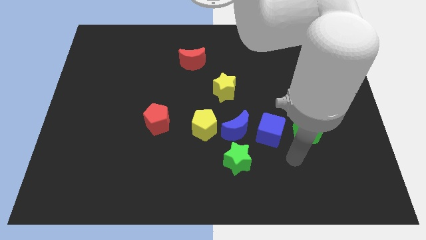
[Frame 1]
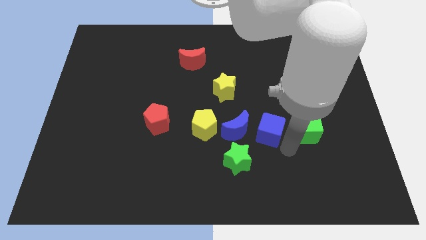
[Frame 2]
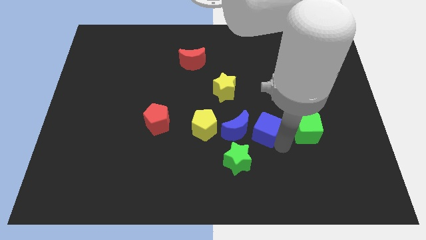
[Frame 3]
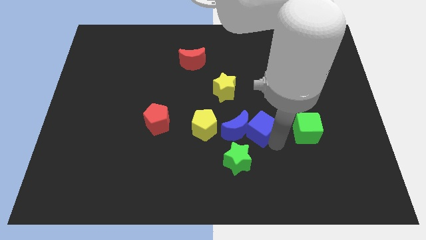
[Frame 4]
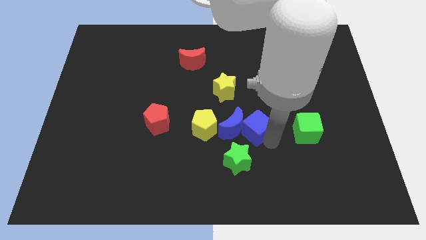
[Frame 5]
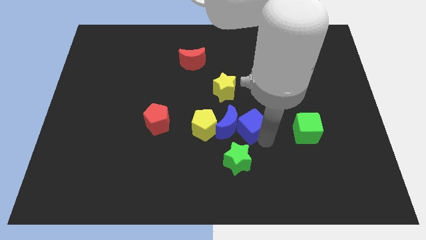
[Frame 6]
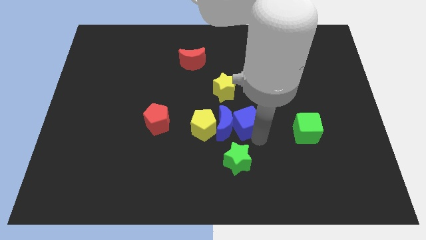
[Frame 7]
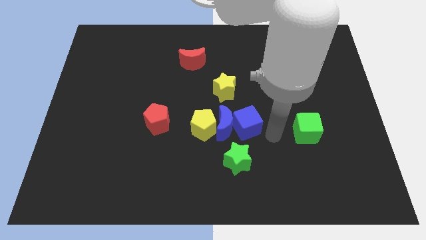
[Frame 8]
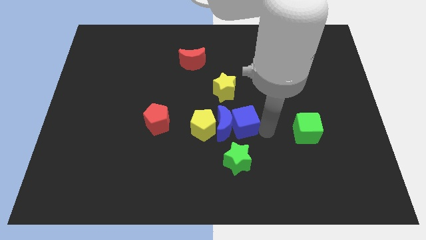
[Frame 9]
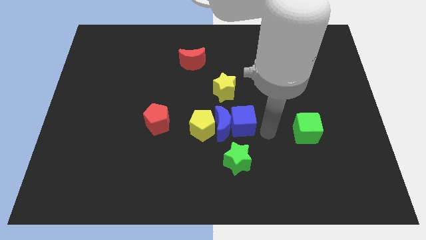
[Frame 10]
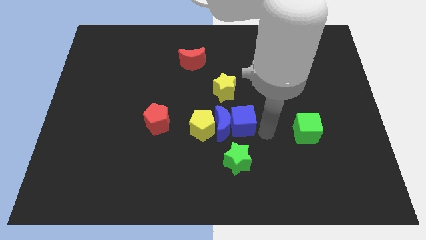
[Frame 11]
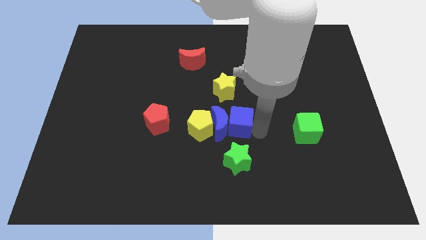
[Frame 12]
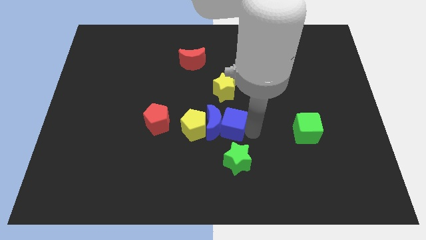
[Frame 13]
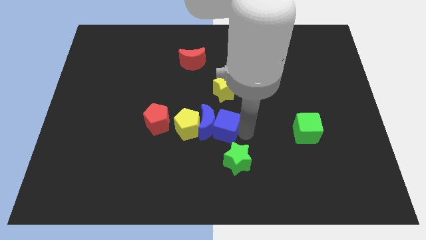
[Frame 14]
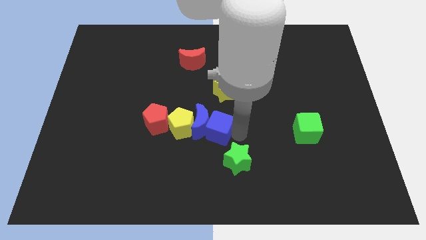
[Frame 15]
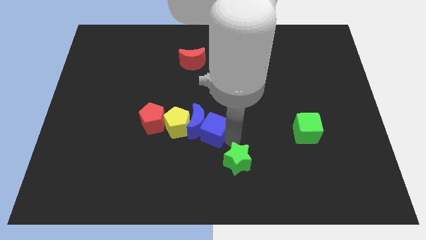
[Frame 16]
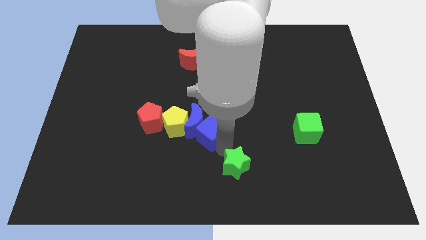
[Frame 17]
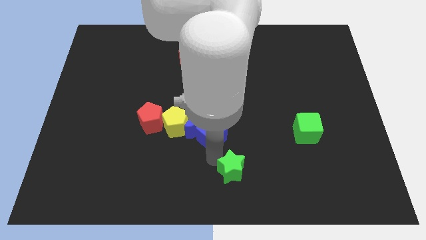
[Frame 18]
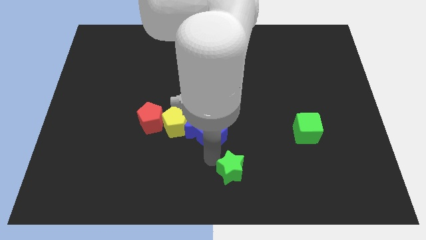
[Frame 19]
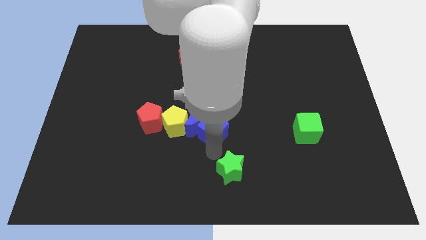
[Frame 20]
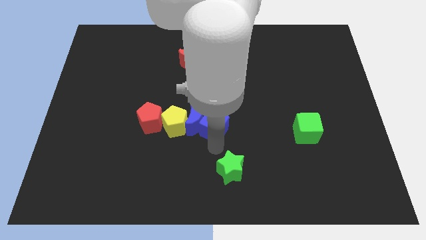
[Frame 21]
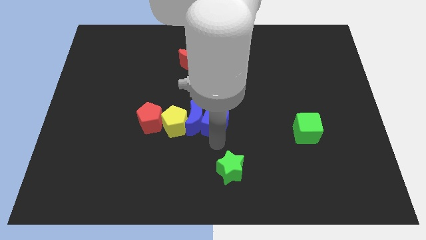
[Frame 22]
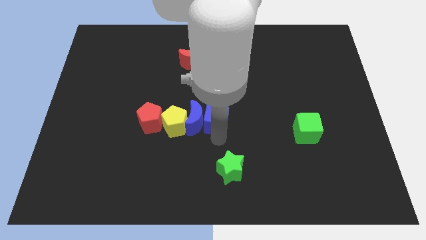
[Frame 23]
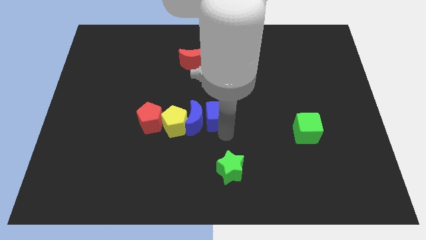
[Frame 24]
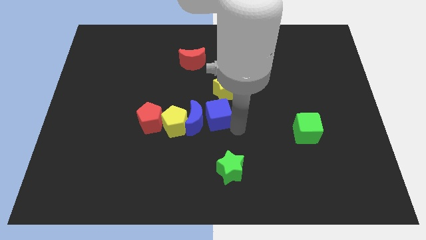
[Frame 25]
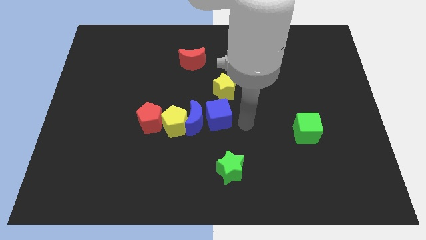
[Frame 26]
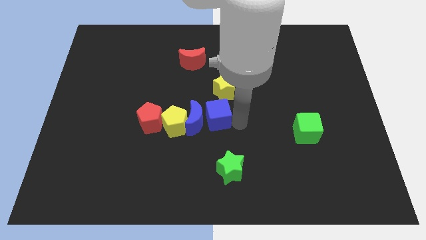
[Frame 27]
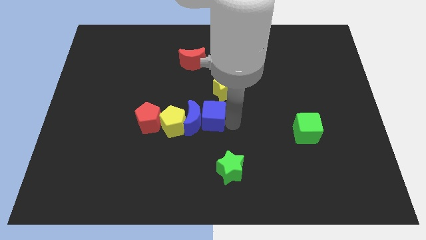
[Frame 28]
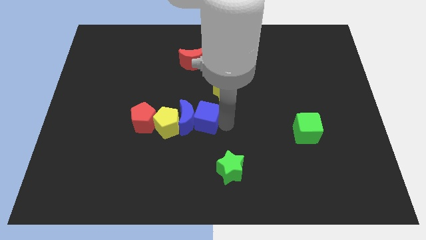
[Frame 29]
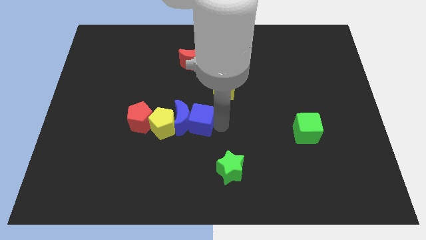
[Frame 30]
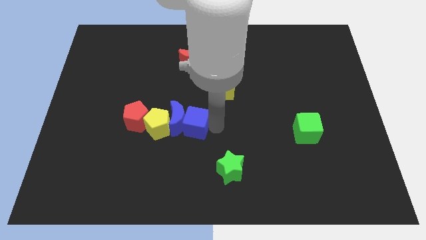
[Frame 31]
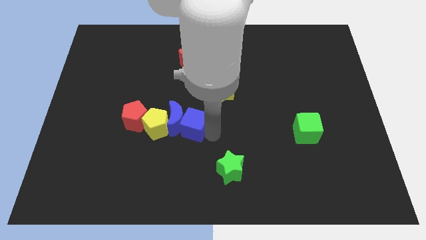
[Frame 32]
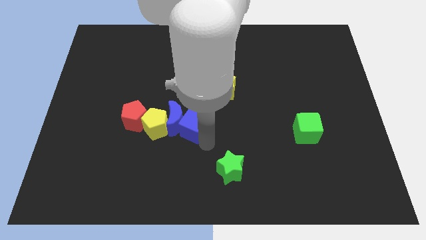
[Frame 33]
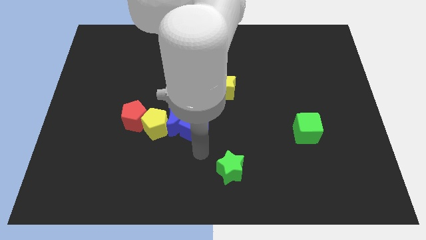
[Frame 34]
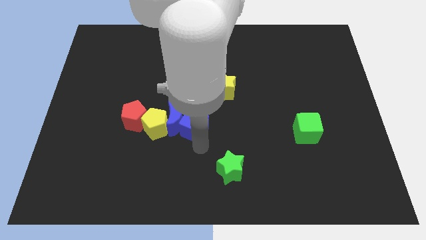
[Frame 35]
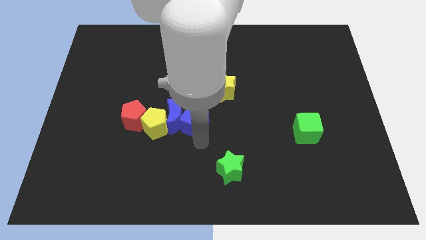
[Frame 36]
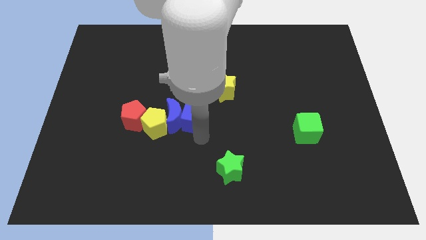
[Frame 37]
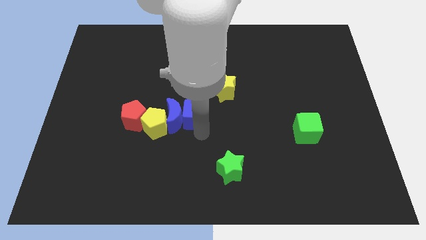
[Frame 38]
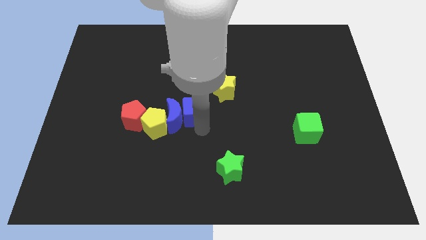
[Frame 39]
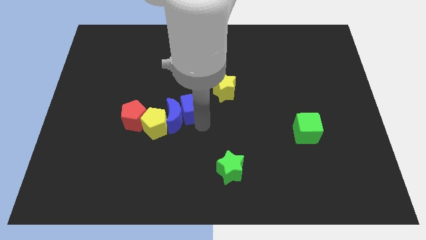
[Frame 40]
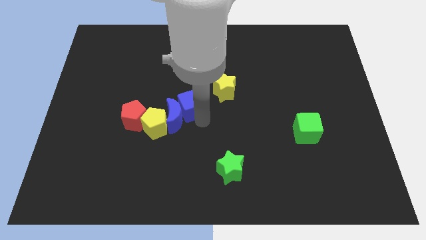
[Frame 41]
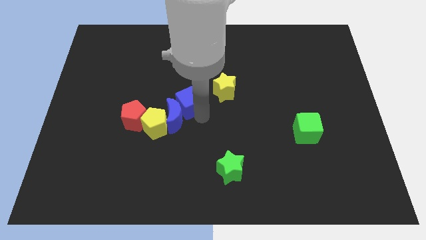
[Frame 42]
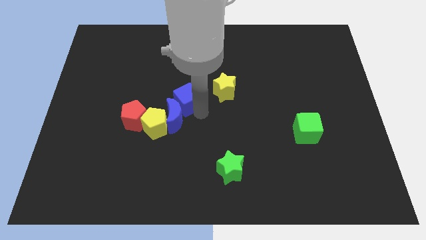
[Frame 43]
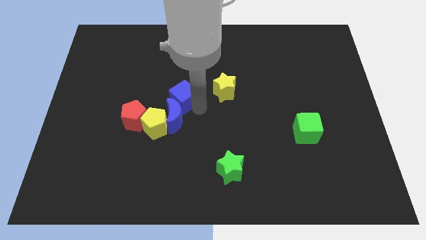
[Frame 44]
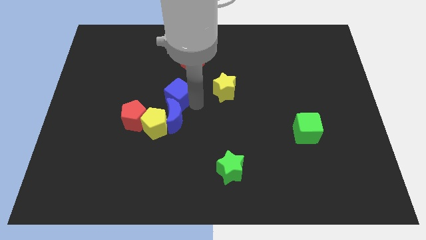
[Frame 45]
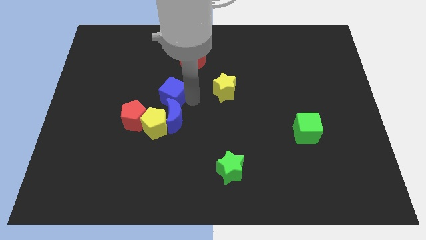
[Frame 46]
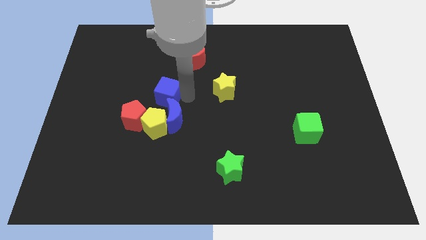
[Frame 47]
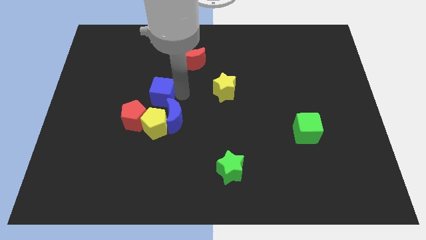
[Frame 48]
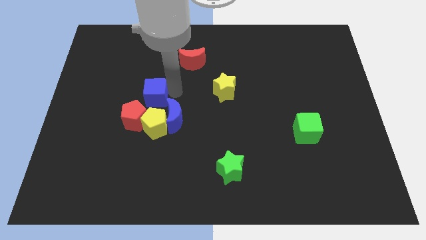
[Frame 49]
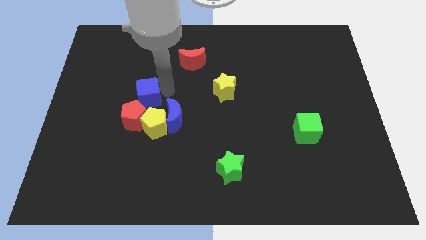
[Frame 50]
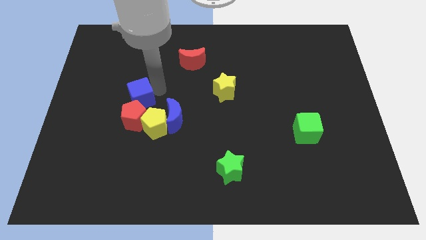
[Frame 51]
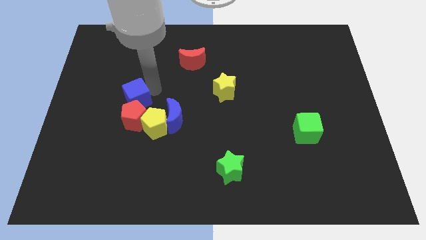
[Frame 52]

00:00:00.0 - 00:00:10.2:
put the blue cube next to the red pentagon

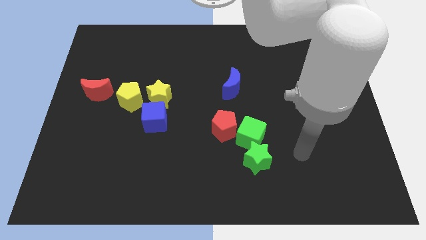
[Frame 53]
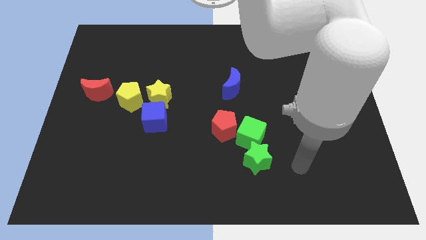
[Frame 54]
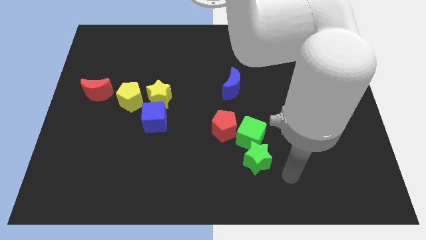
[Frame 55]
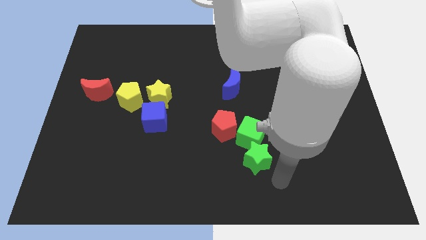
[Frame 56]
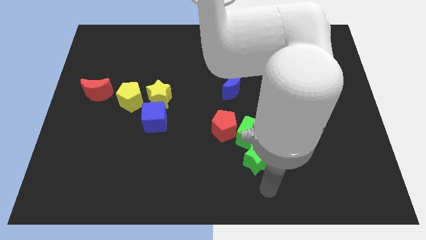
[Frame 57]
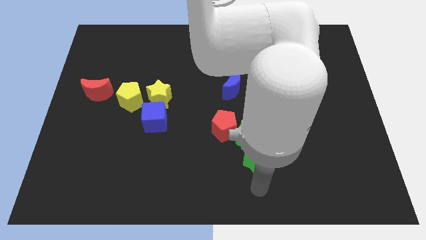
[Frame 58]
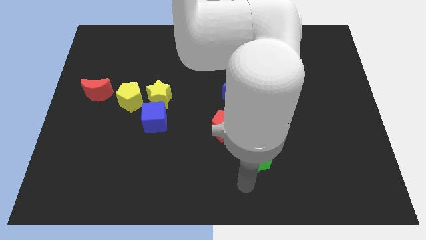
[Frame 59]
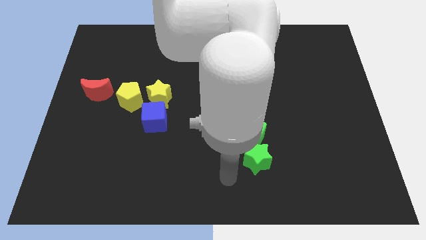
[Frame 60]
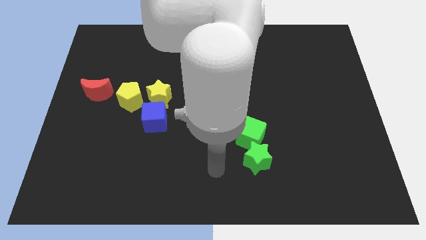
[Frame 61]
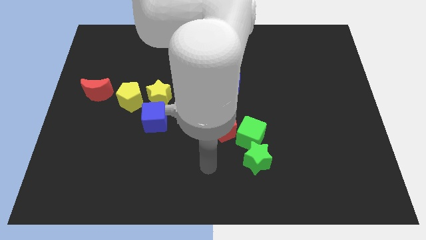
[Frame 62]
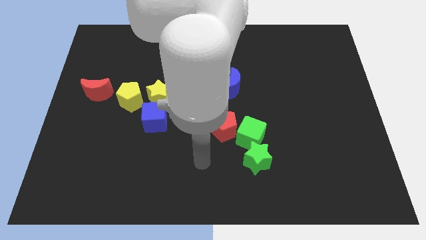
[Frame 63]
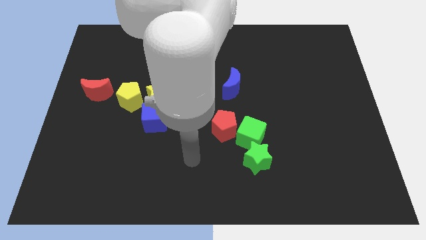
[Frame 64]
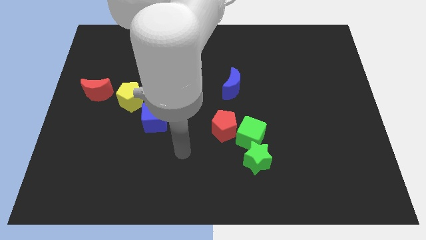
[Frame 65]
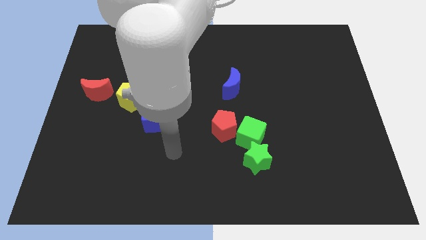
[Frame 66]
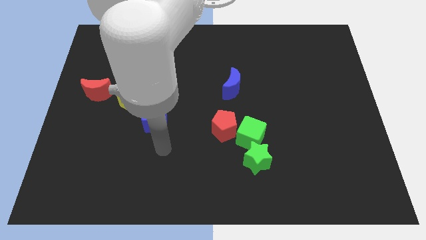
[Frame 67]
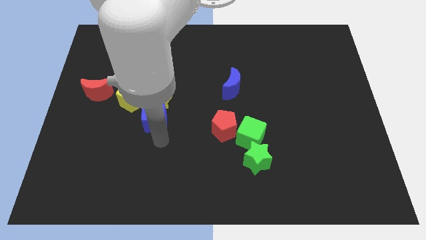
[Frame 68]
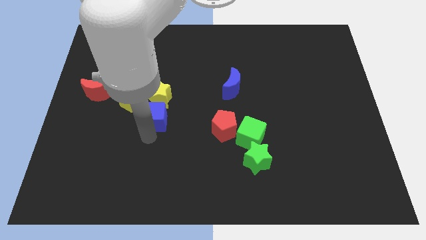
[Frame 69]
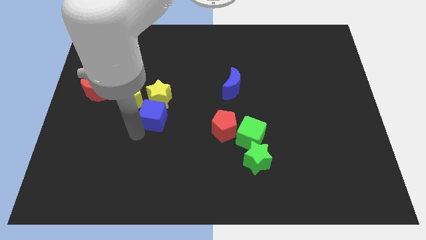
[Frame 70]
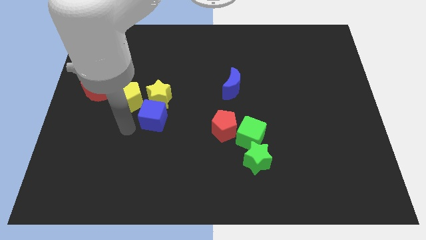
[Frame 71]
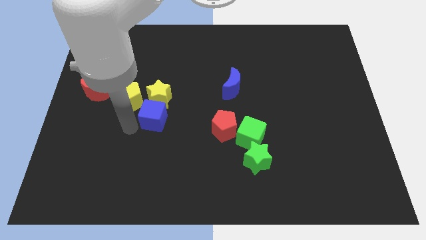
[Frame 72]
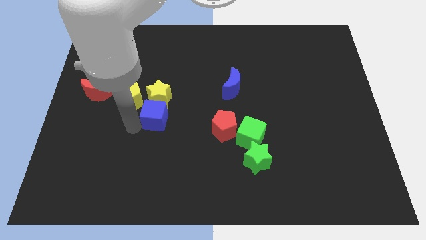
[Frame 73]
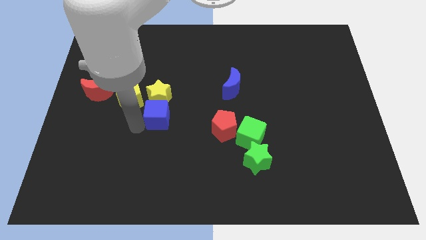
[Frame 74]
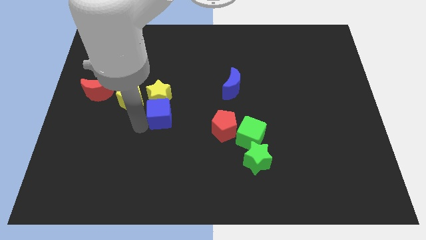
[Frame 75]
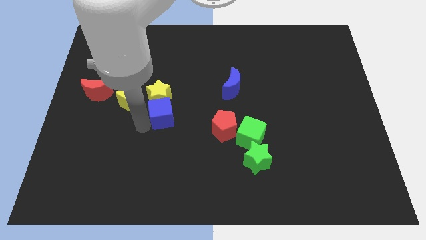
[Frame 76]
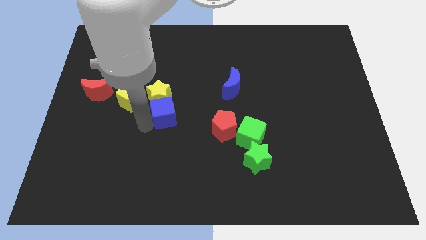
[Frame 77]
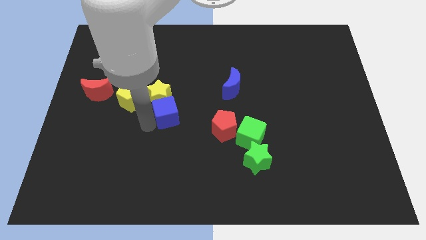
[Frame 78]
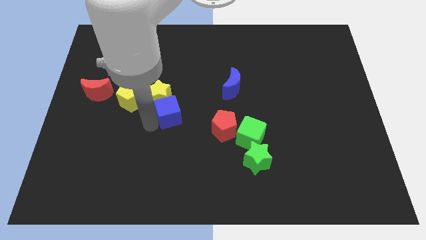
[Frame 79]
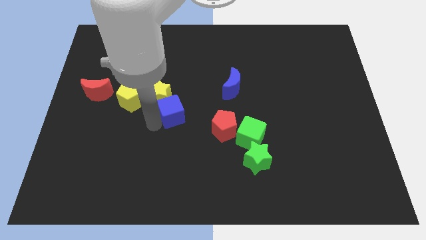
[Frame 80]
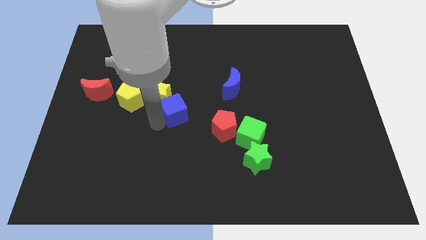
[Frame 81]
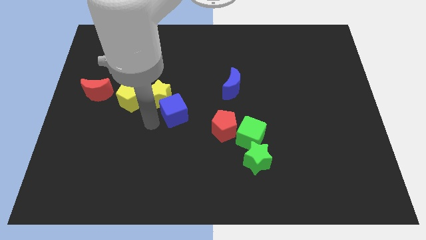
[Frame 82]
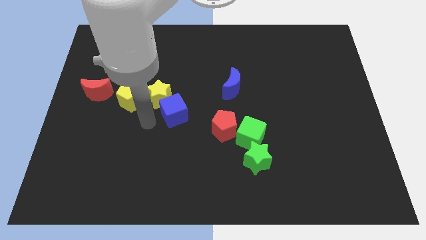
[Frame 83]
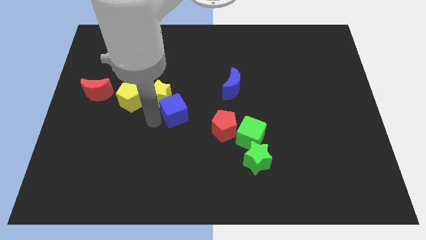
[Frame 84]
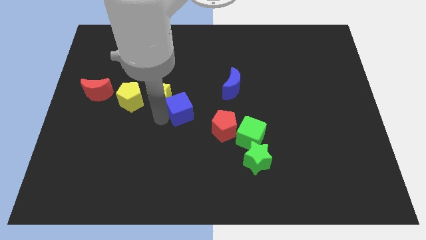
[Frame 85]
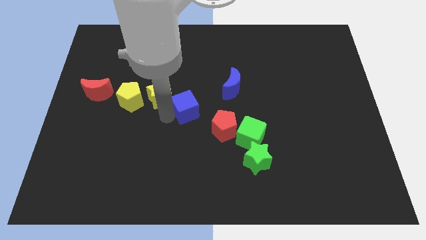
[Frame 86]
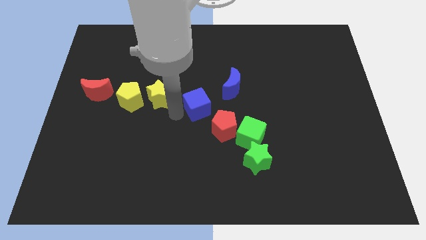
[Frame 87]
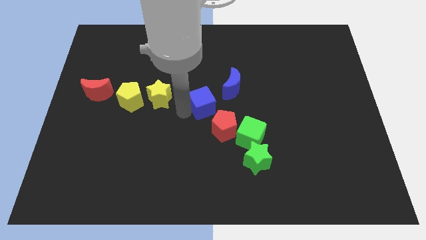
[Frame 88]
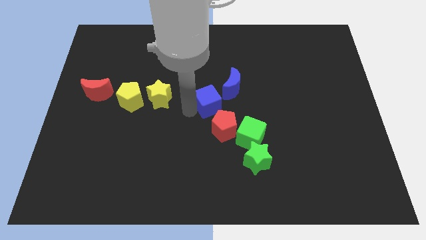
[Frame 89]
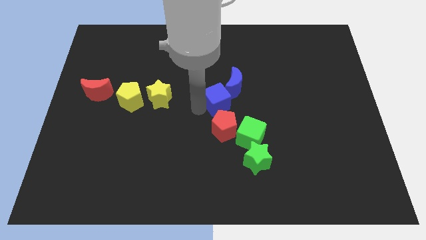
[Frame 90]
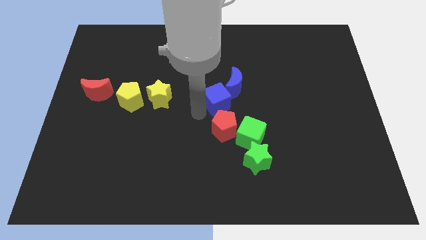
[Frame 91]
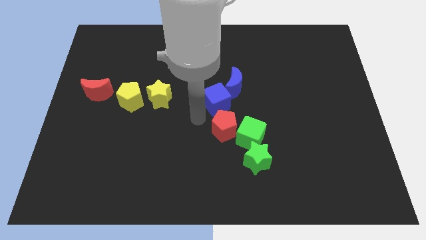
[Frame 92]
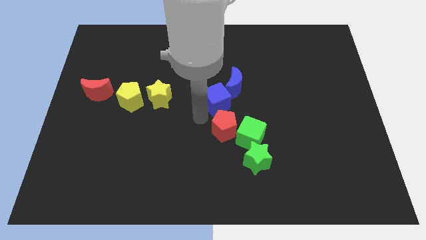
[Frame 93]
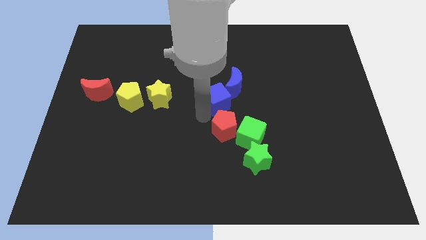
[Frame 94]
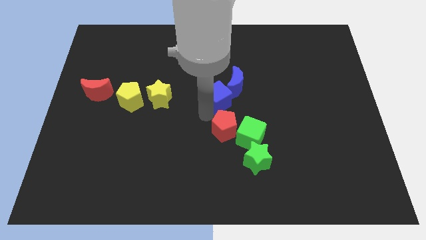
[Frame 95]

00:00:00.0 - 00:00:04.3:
push the blue cube next to the blue moon
